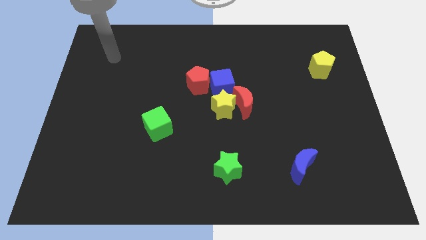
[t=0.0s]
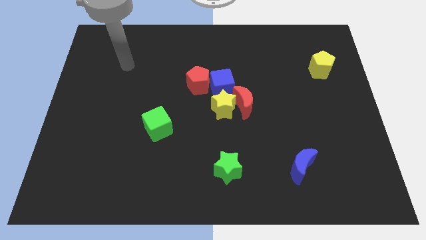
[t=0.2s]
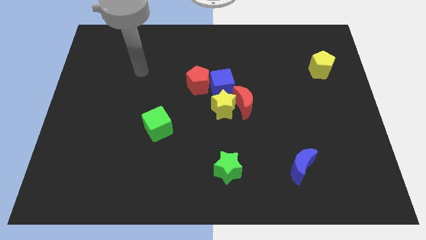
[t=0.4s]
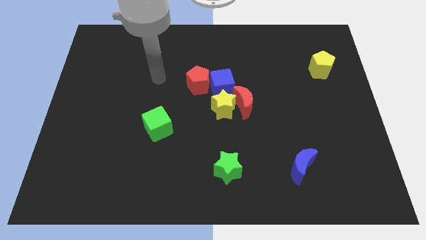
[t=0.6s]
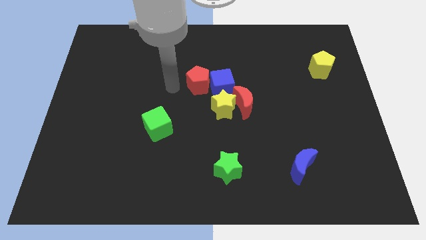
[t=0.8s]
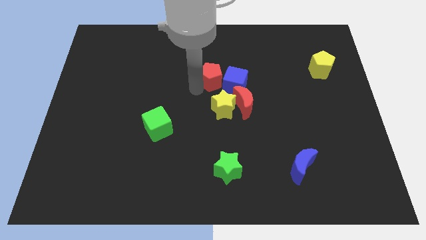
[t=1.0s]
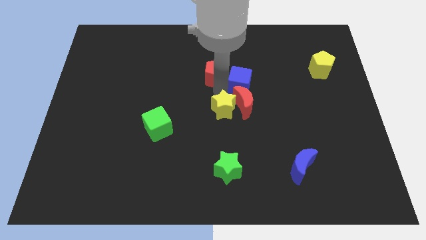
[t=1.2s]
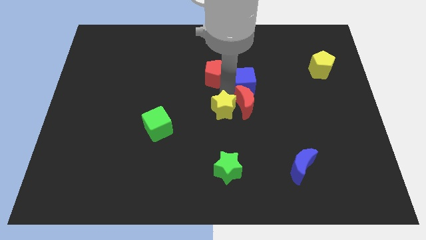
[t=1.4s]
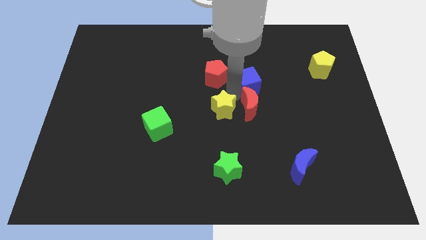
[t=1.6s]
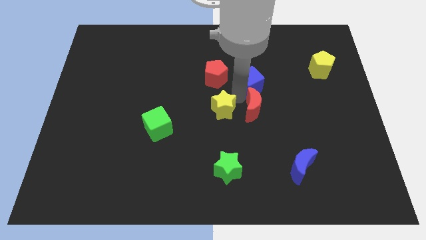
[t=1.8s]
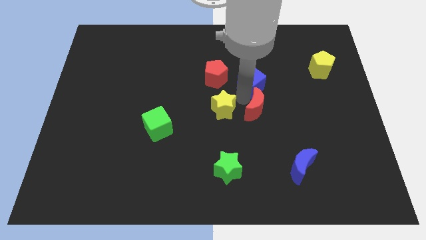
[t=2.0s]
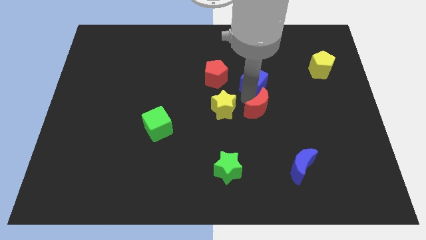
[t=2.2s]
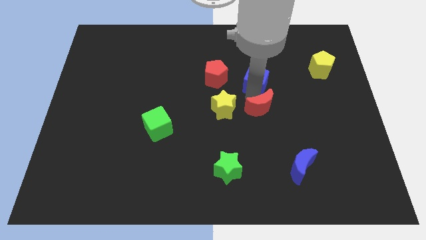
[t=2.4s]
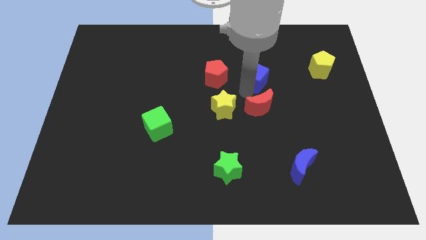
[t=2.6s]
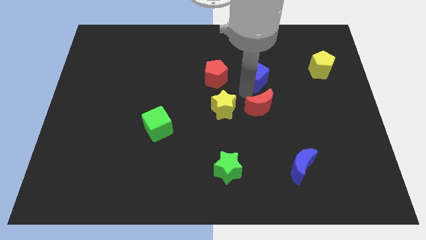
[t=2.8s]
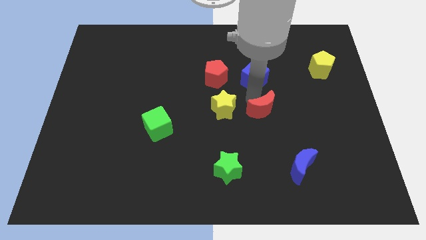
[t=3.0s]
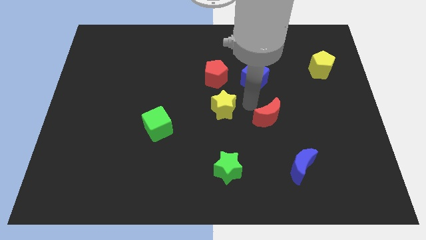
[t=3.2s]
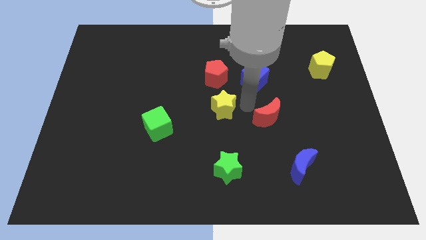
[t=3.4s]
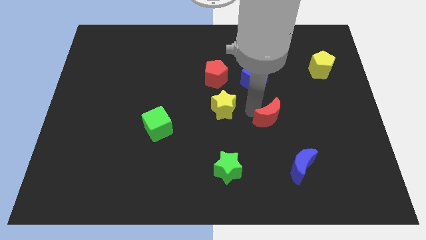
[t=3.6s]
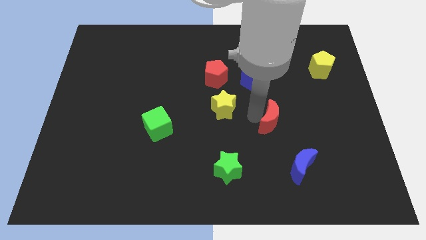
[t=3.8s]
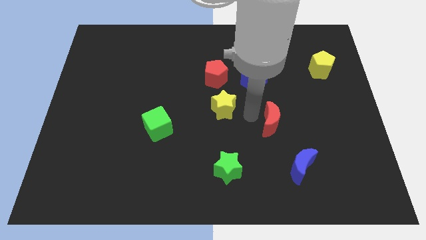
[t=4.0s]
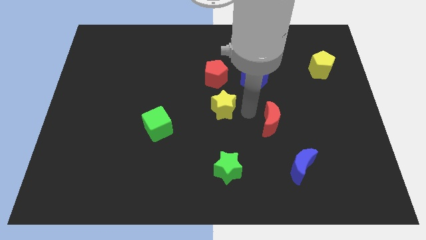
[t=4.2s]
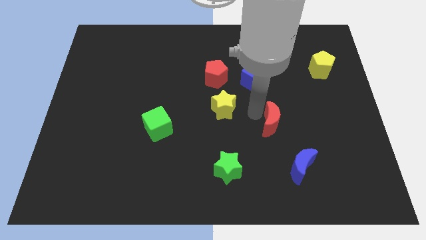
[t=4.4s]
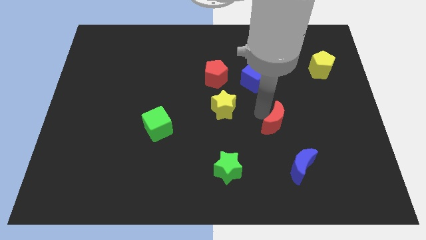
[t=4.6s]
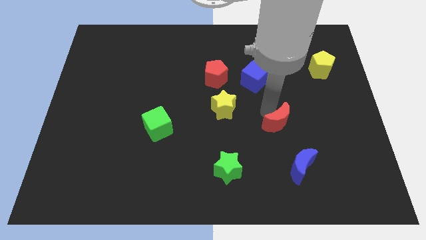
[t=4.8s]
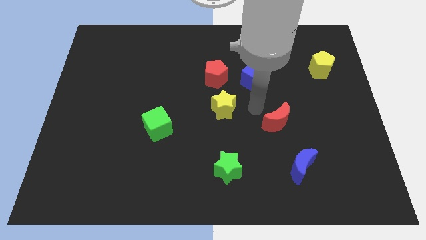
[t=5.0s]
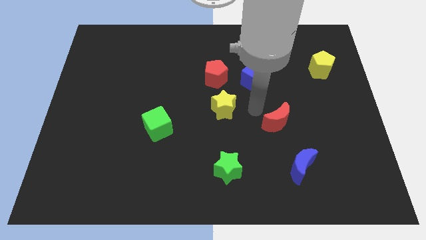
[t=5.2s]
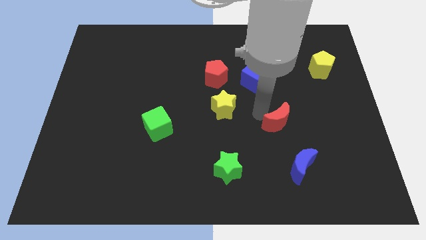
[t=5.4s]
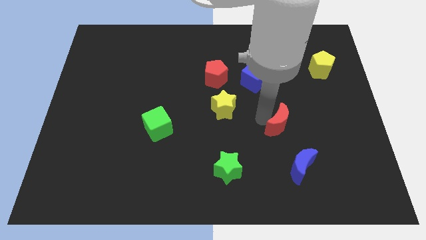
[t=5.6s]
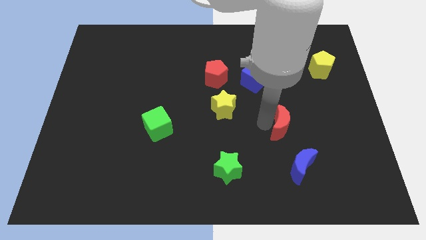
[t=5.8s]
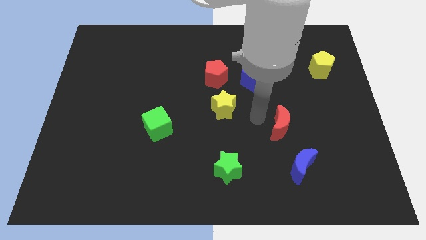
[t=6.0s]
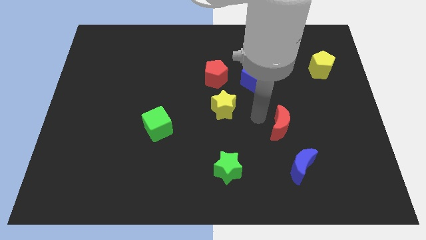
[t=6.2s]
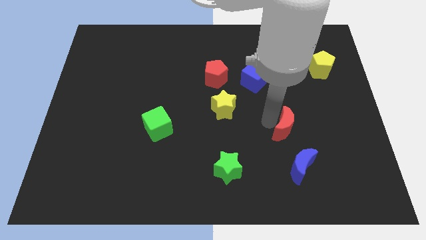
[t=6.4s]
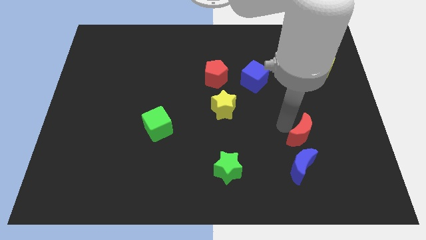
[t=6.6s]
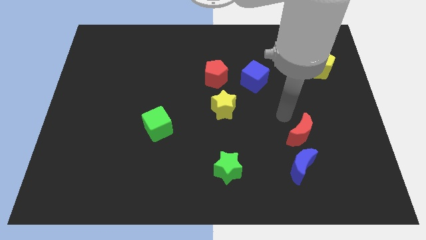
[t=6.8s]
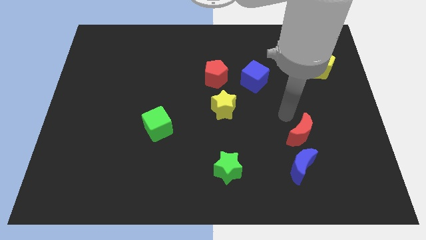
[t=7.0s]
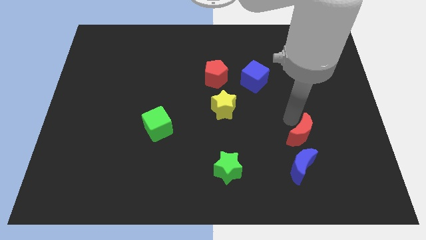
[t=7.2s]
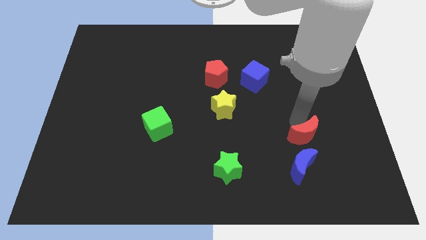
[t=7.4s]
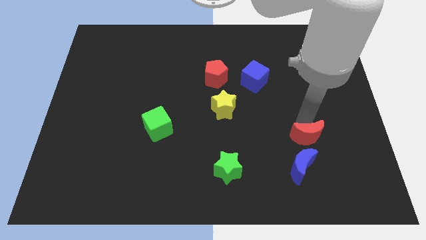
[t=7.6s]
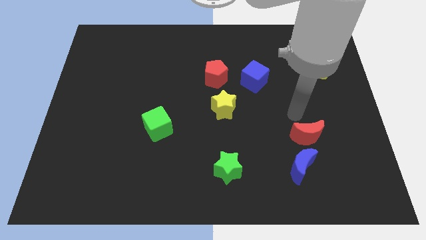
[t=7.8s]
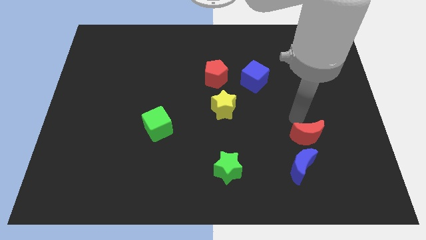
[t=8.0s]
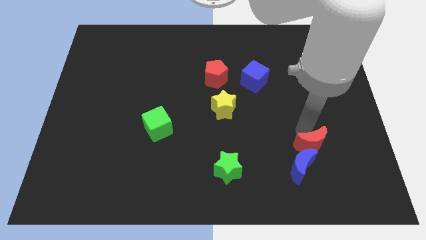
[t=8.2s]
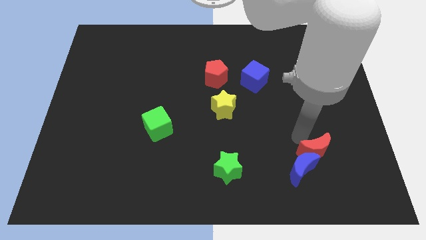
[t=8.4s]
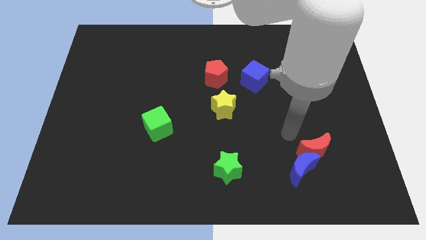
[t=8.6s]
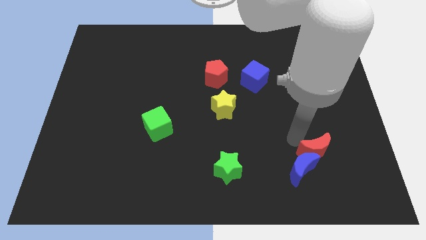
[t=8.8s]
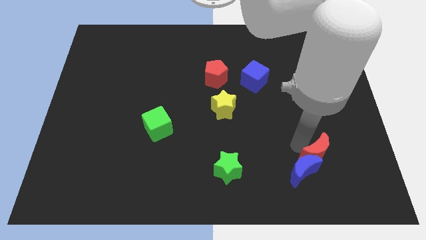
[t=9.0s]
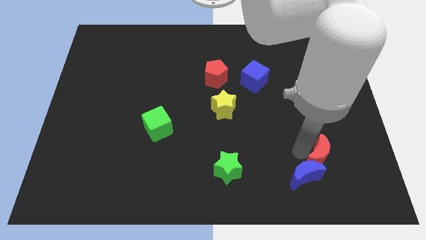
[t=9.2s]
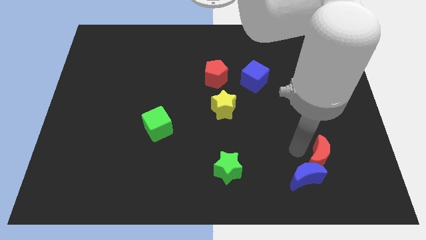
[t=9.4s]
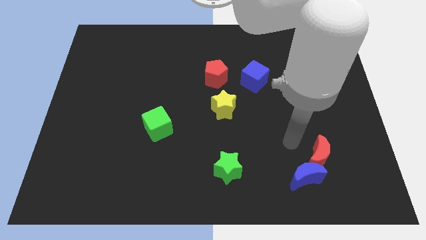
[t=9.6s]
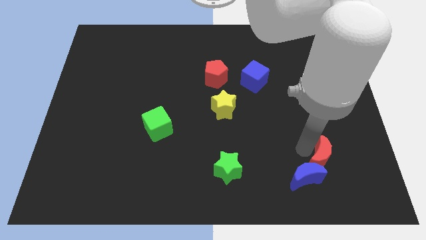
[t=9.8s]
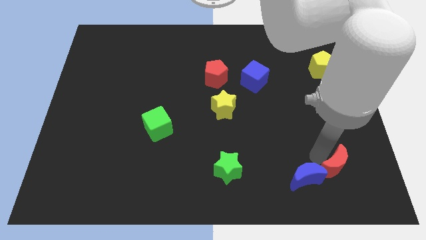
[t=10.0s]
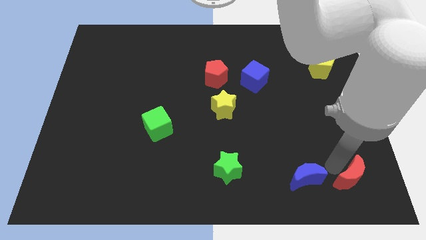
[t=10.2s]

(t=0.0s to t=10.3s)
push the red moon to the bottom right of the board

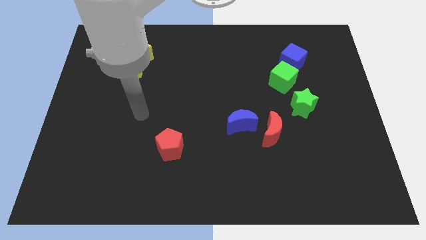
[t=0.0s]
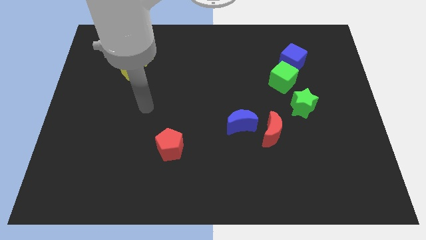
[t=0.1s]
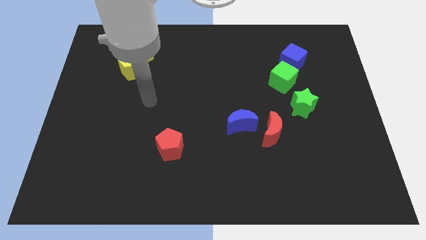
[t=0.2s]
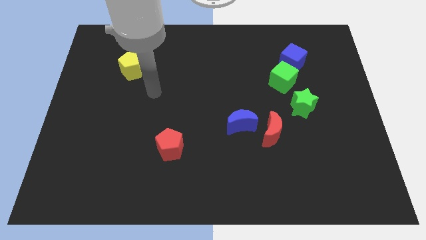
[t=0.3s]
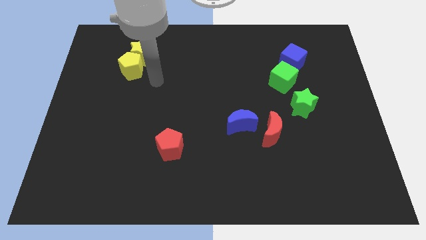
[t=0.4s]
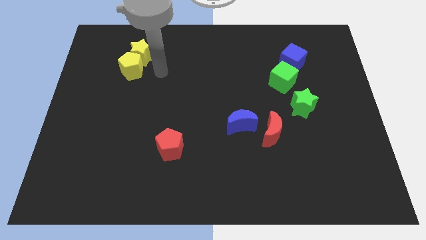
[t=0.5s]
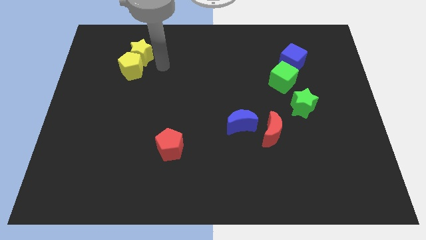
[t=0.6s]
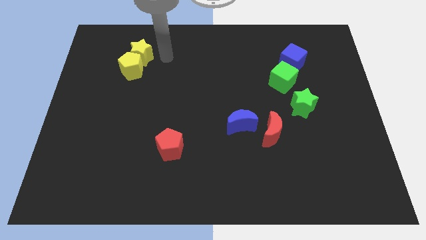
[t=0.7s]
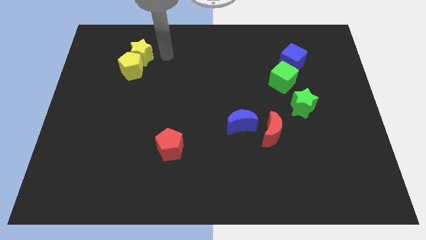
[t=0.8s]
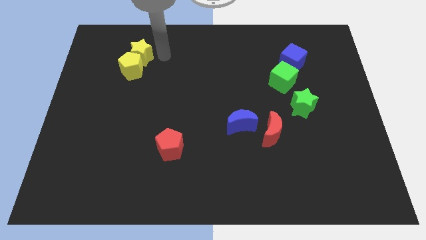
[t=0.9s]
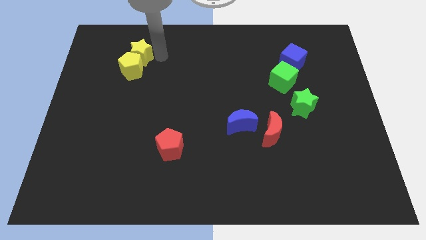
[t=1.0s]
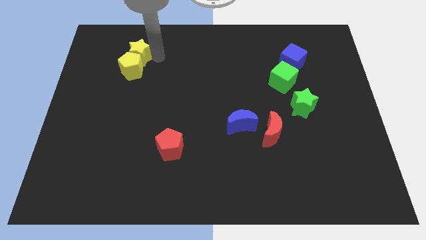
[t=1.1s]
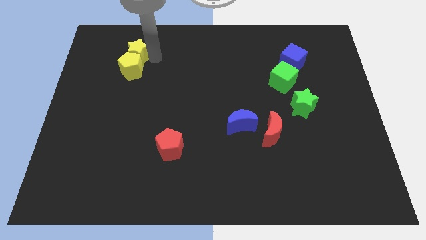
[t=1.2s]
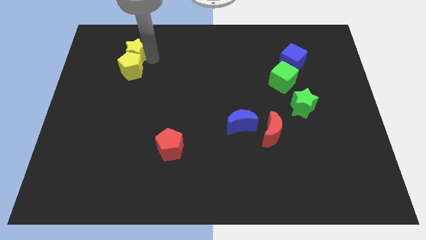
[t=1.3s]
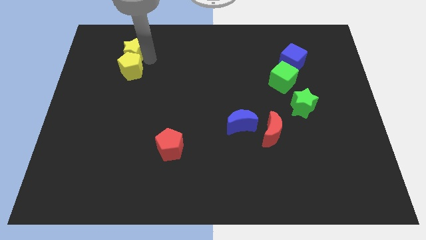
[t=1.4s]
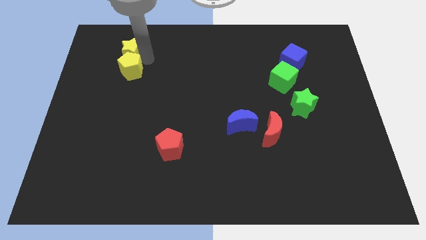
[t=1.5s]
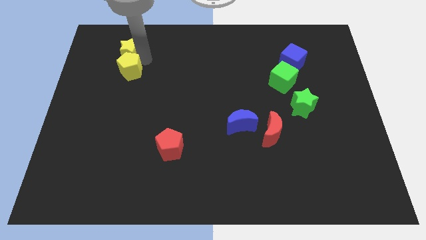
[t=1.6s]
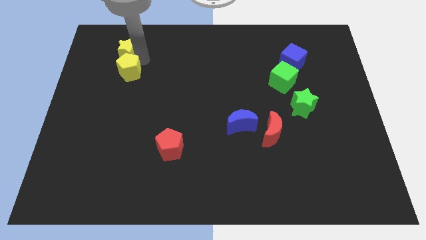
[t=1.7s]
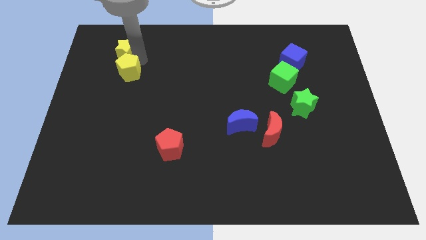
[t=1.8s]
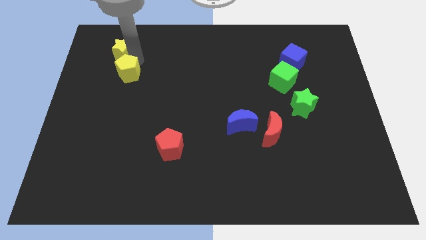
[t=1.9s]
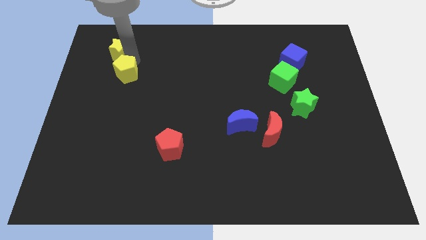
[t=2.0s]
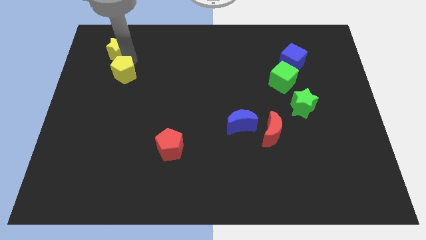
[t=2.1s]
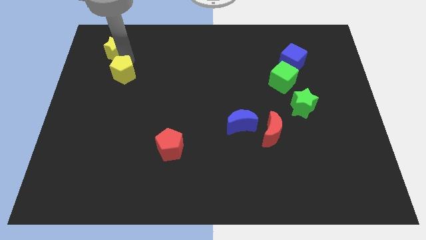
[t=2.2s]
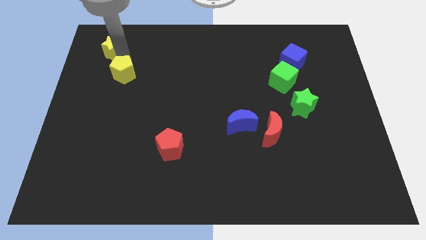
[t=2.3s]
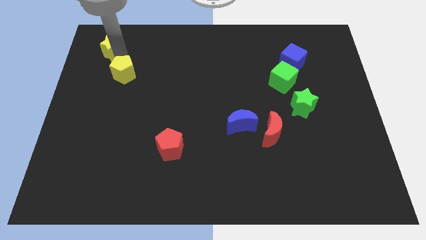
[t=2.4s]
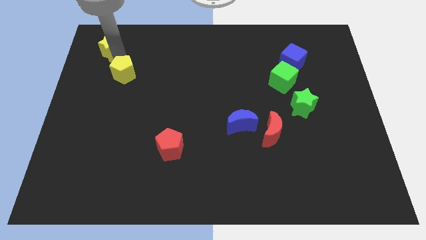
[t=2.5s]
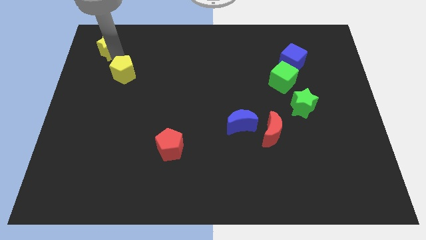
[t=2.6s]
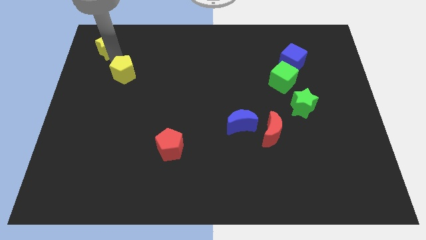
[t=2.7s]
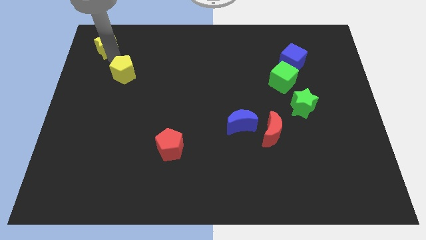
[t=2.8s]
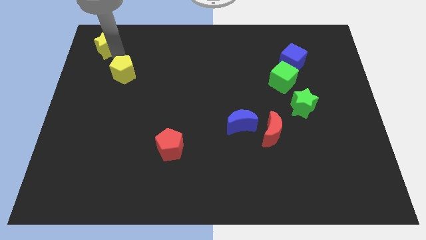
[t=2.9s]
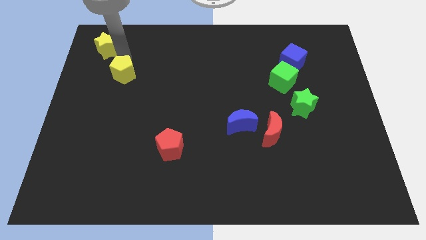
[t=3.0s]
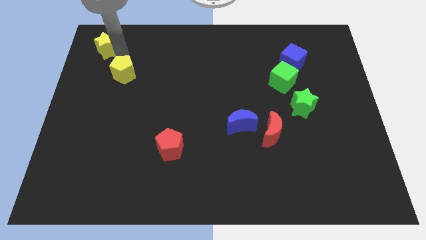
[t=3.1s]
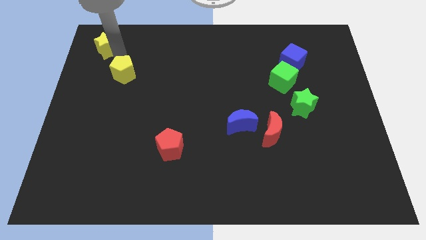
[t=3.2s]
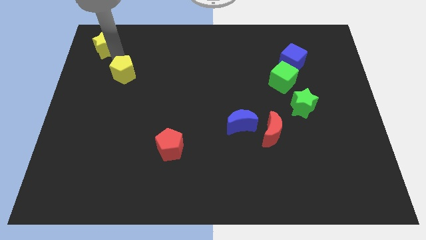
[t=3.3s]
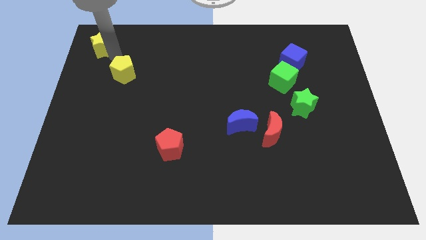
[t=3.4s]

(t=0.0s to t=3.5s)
slide the yellow star to the top left corner
